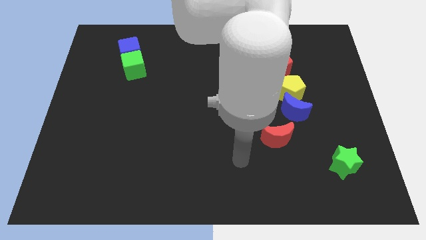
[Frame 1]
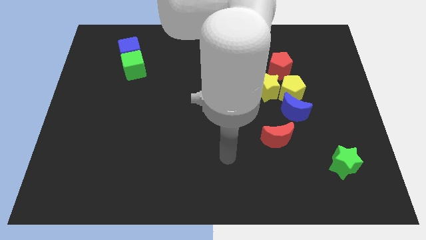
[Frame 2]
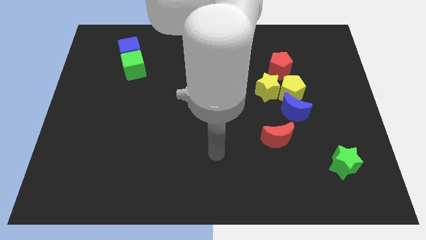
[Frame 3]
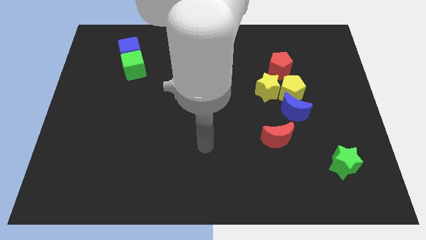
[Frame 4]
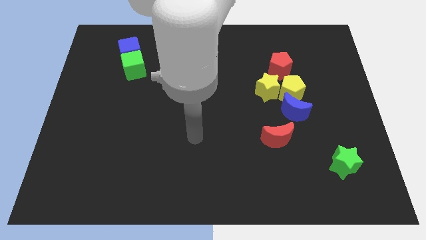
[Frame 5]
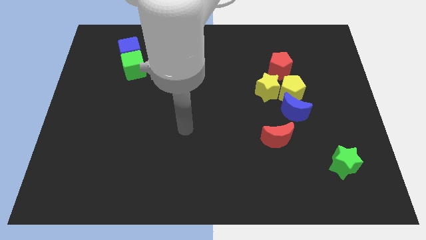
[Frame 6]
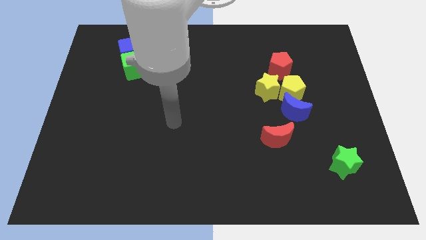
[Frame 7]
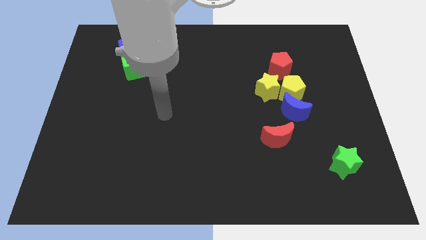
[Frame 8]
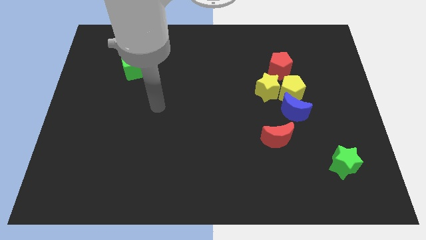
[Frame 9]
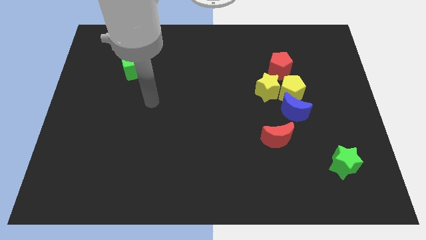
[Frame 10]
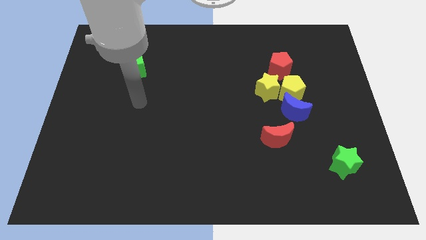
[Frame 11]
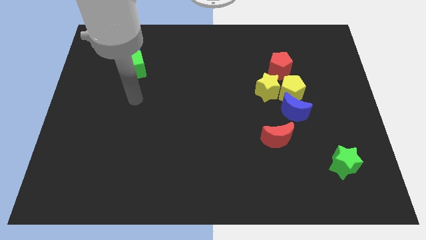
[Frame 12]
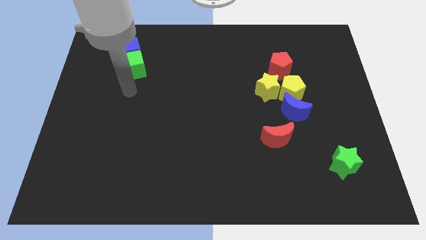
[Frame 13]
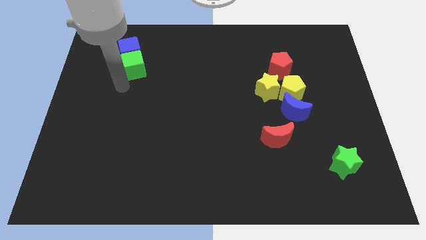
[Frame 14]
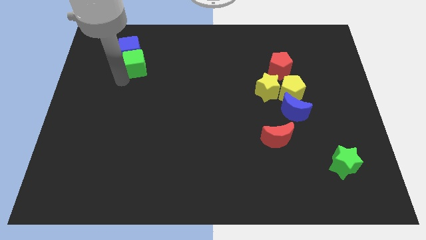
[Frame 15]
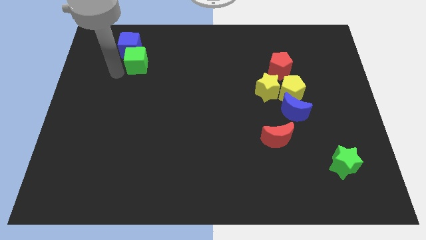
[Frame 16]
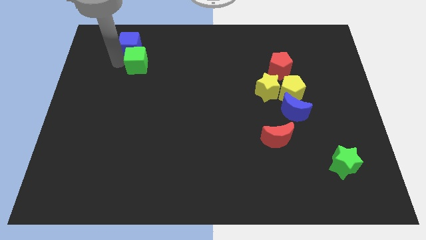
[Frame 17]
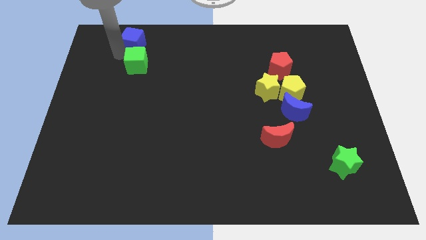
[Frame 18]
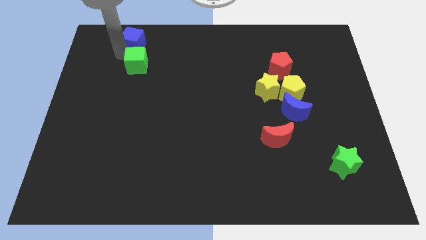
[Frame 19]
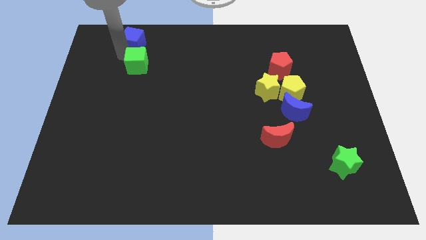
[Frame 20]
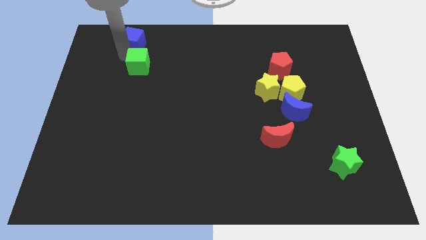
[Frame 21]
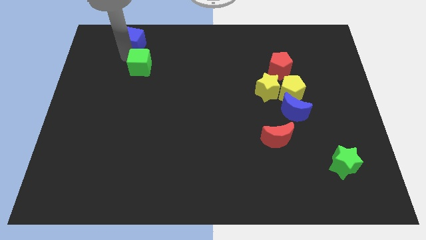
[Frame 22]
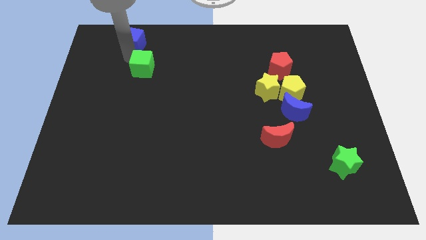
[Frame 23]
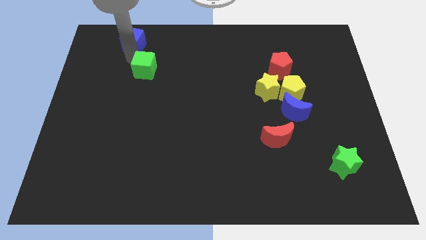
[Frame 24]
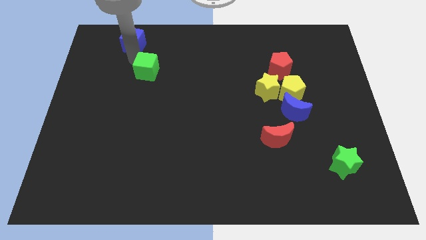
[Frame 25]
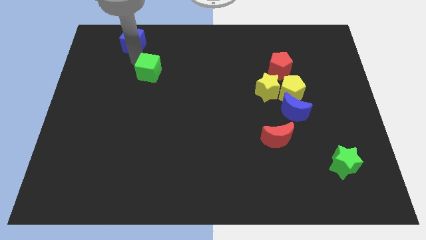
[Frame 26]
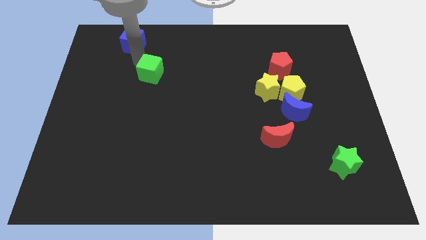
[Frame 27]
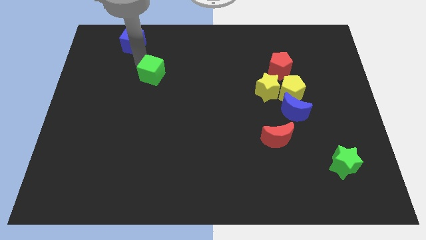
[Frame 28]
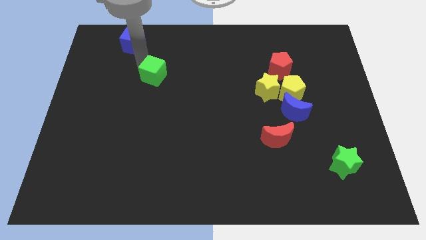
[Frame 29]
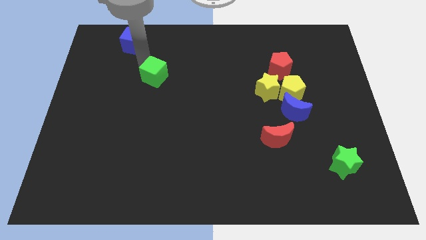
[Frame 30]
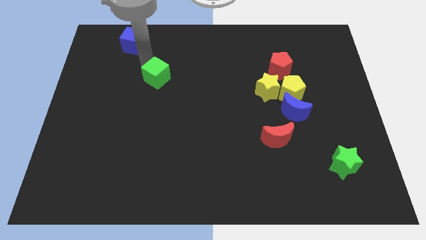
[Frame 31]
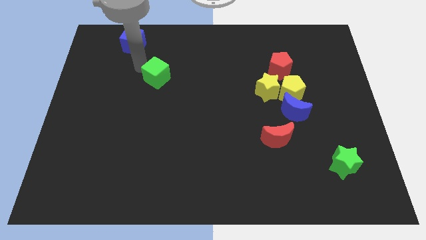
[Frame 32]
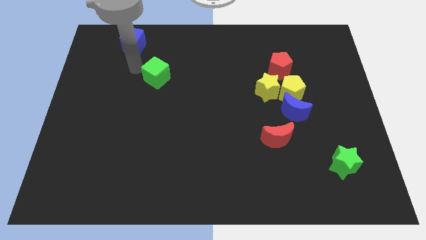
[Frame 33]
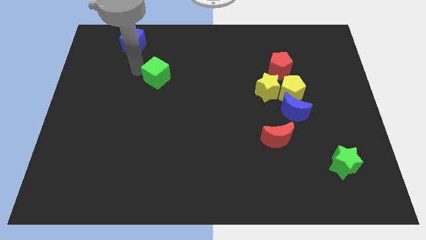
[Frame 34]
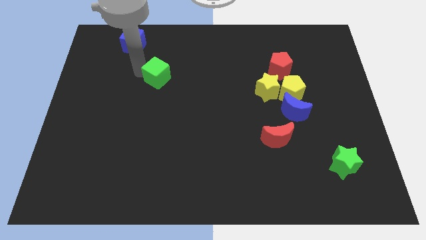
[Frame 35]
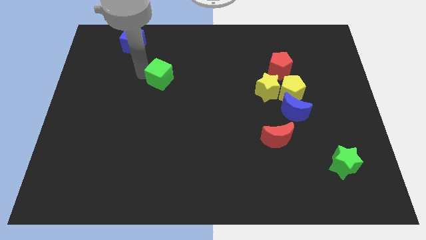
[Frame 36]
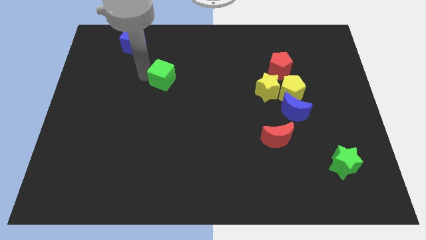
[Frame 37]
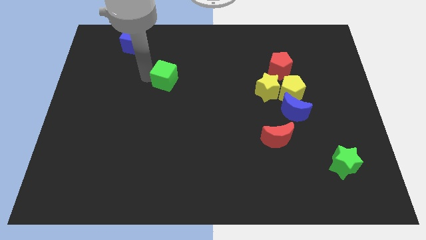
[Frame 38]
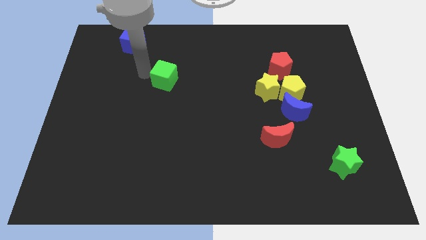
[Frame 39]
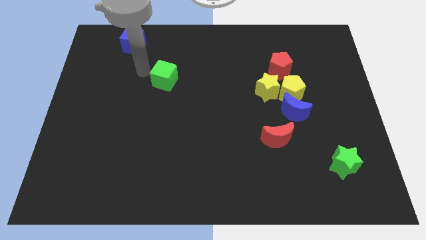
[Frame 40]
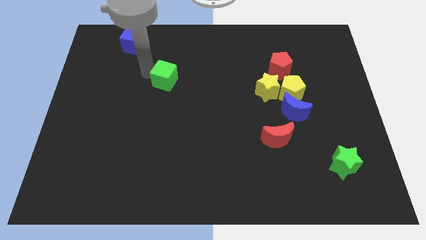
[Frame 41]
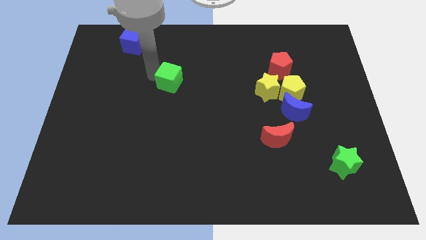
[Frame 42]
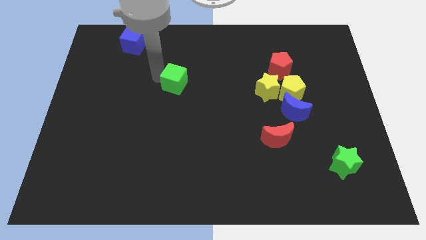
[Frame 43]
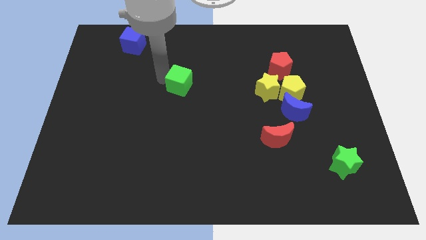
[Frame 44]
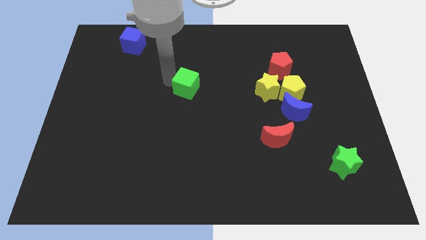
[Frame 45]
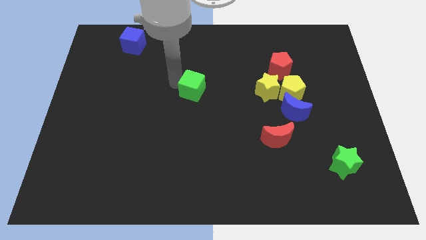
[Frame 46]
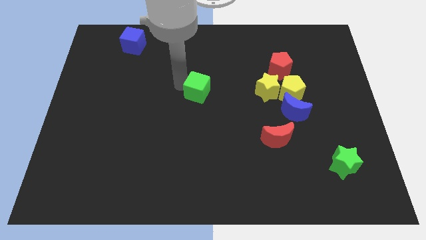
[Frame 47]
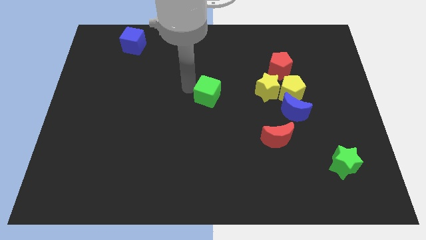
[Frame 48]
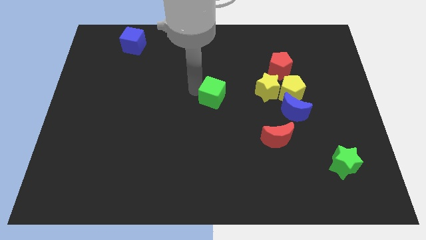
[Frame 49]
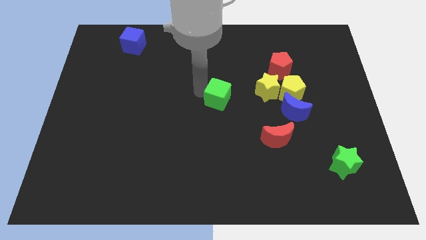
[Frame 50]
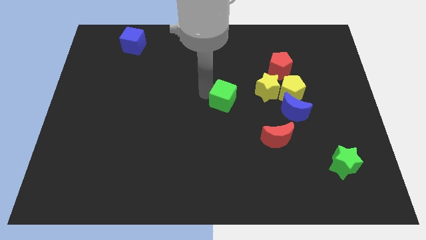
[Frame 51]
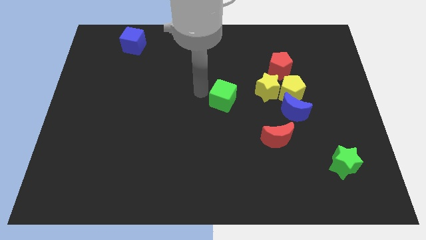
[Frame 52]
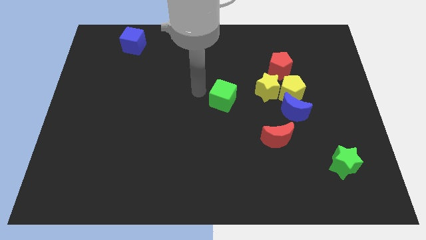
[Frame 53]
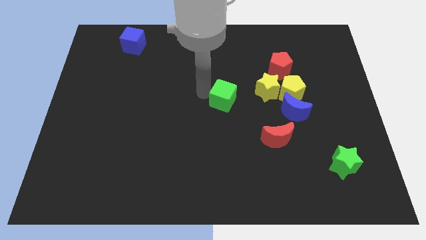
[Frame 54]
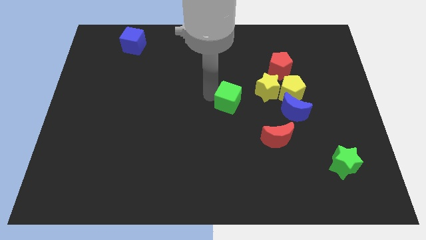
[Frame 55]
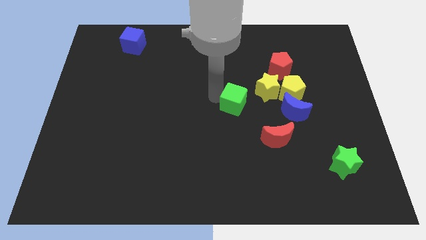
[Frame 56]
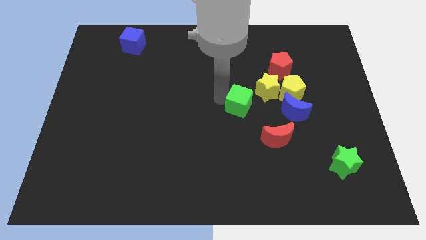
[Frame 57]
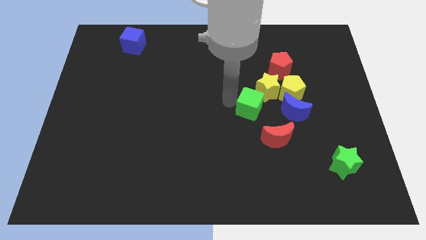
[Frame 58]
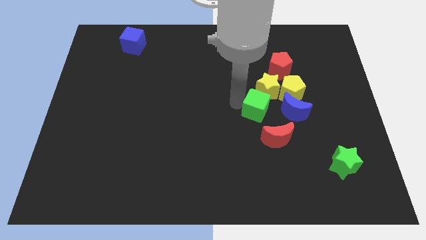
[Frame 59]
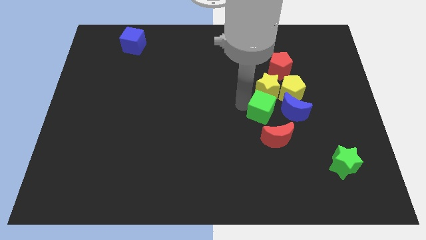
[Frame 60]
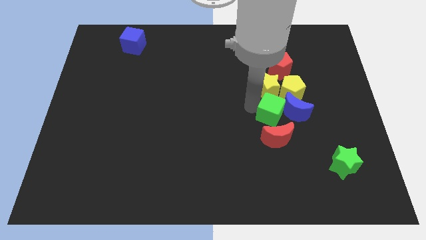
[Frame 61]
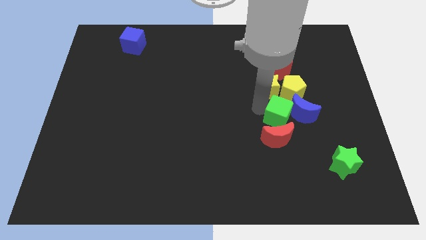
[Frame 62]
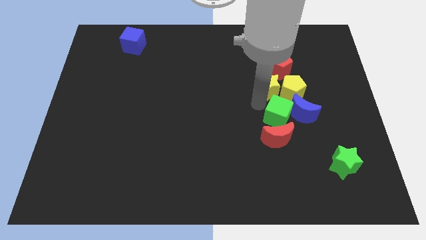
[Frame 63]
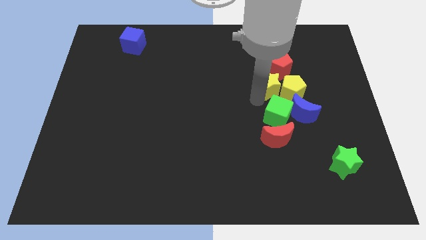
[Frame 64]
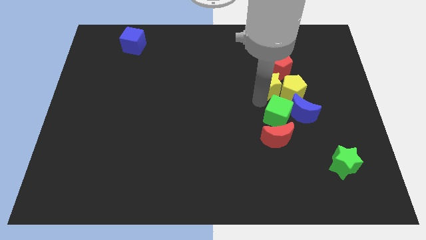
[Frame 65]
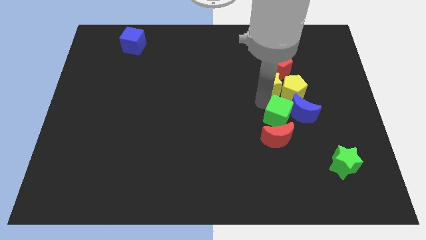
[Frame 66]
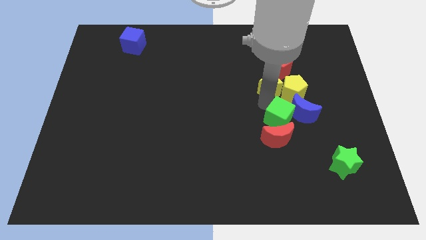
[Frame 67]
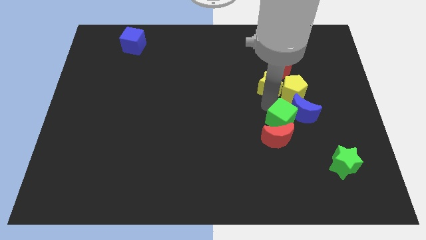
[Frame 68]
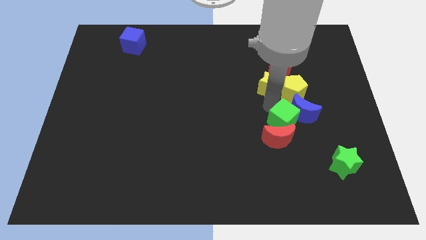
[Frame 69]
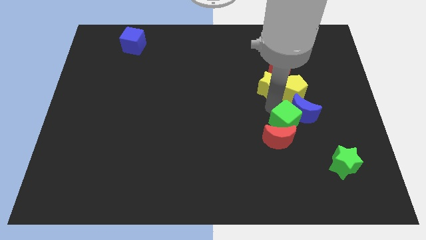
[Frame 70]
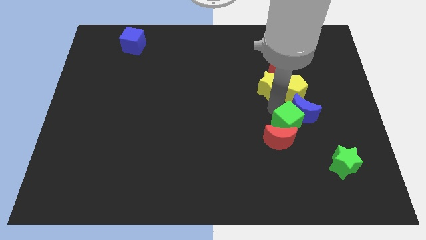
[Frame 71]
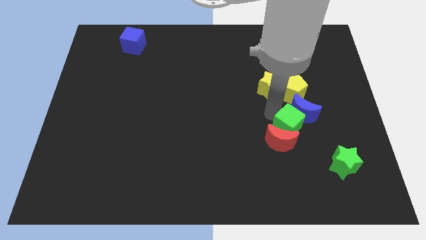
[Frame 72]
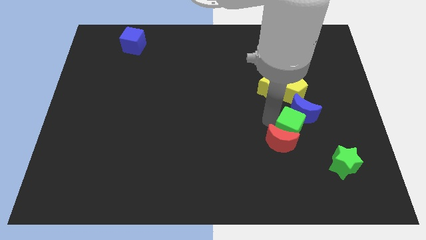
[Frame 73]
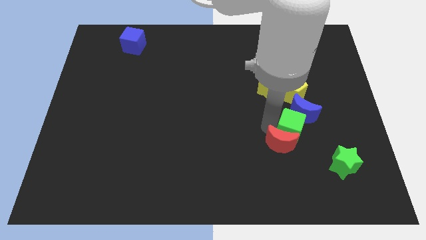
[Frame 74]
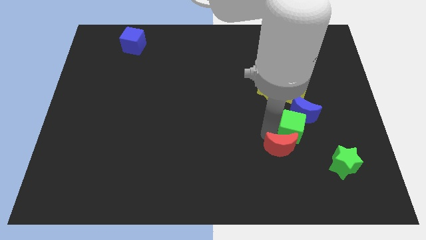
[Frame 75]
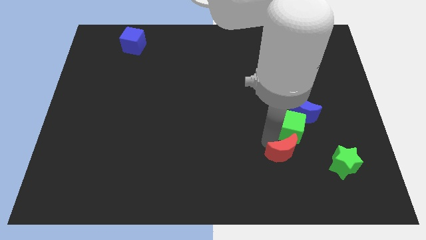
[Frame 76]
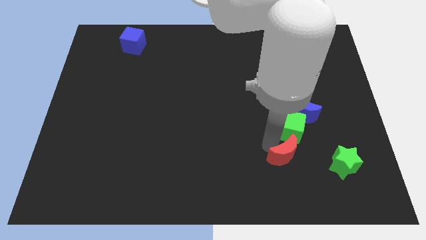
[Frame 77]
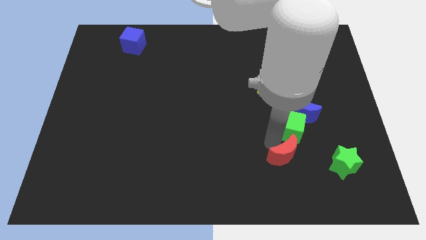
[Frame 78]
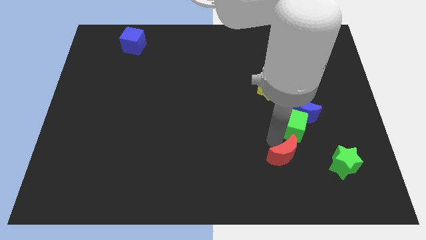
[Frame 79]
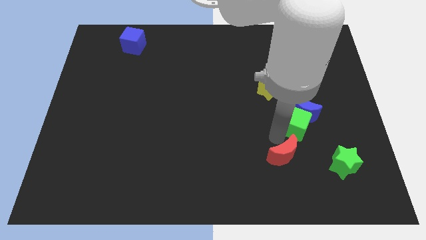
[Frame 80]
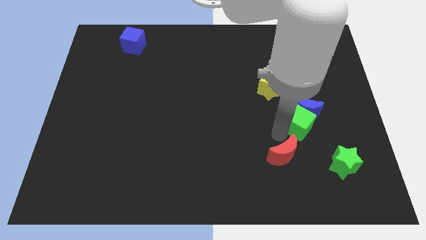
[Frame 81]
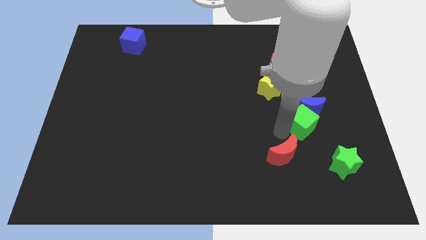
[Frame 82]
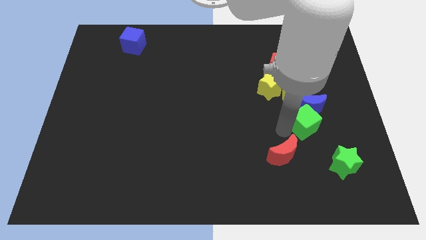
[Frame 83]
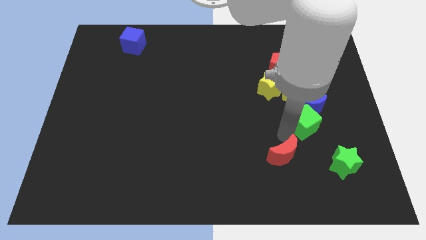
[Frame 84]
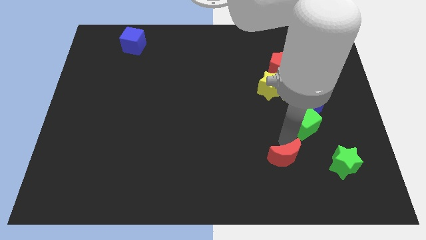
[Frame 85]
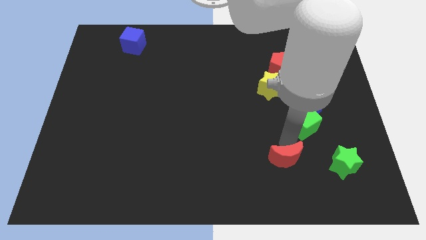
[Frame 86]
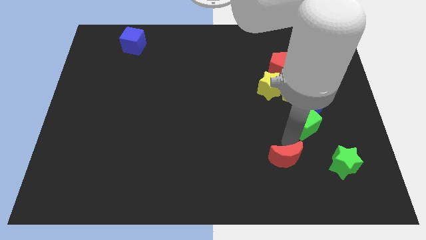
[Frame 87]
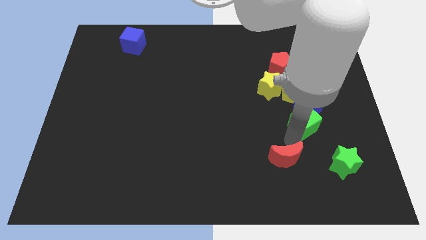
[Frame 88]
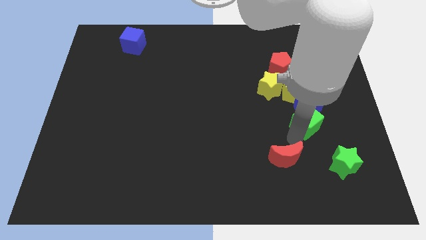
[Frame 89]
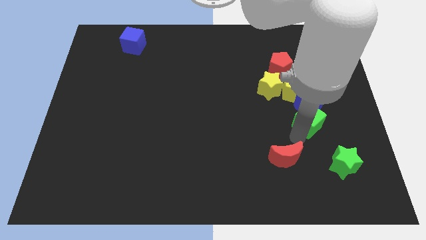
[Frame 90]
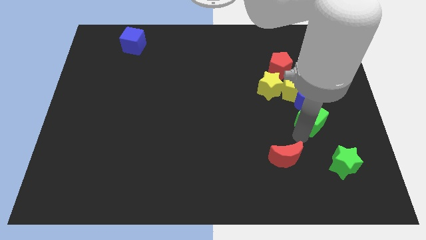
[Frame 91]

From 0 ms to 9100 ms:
push the green cube diagonally down and to the right of the yellow pentagon
